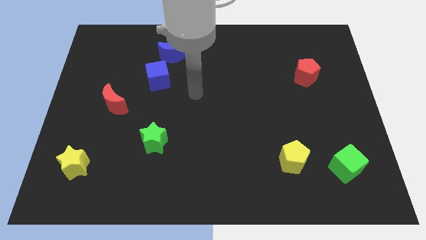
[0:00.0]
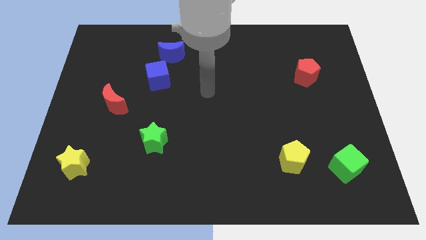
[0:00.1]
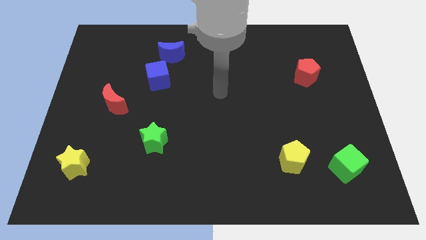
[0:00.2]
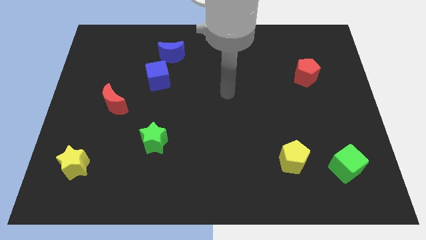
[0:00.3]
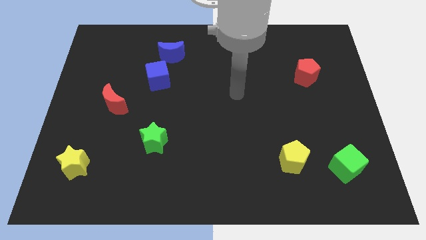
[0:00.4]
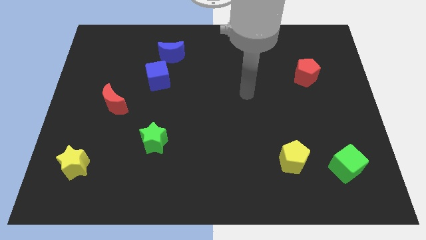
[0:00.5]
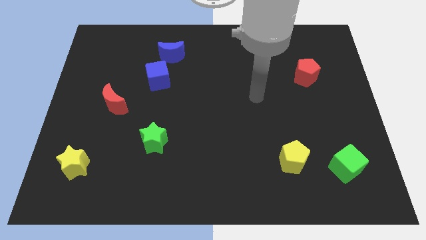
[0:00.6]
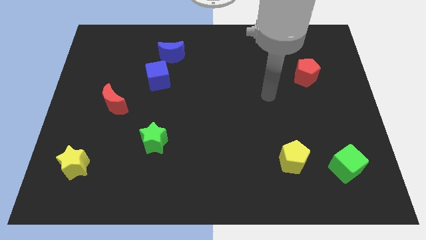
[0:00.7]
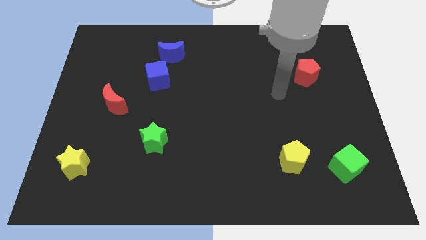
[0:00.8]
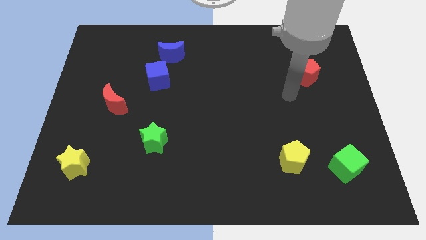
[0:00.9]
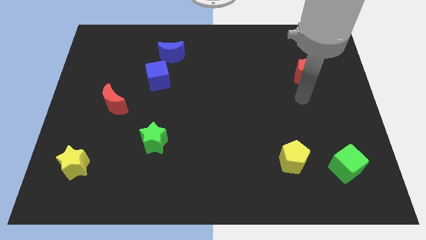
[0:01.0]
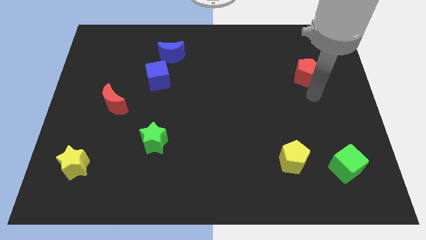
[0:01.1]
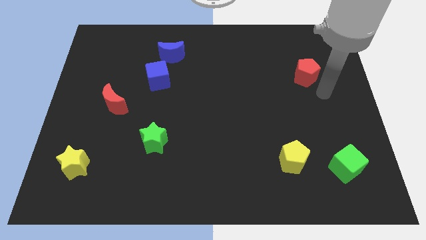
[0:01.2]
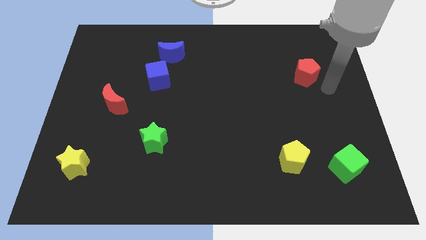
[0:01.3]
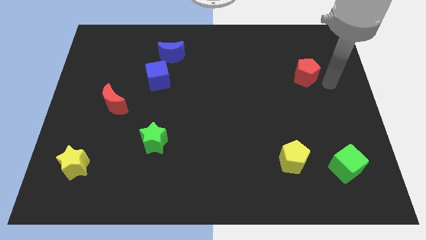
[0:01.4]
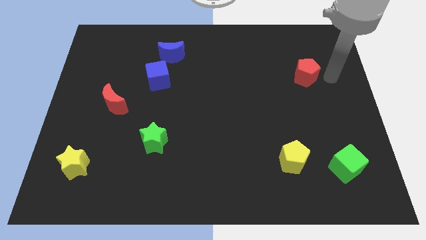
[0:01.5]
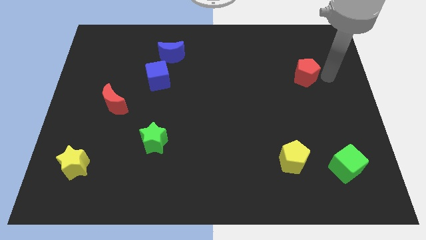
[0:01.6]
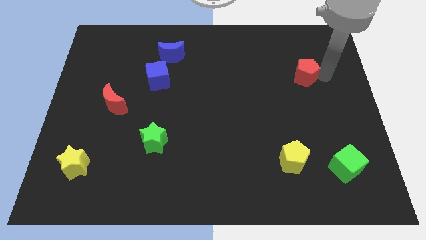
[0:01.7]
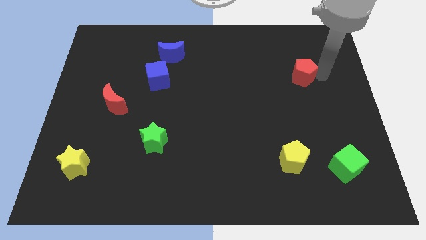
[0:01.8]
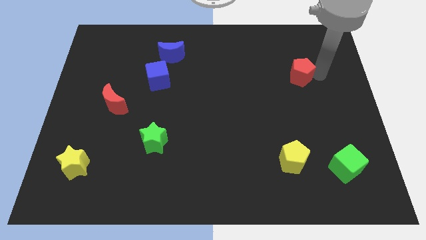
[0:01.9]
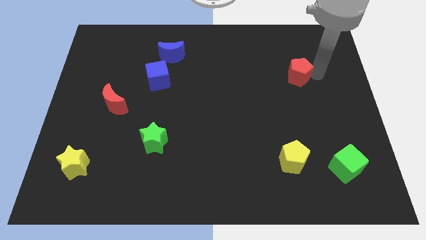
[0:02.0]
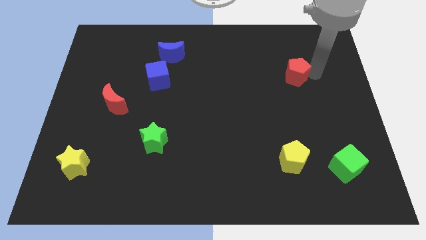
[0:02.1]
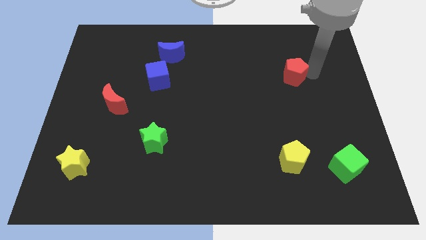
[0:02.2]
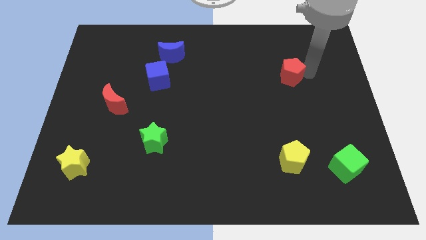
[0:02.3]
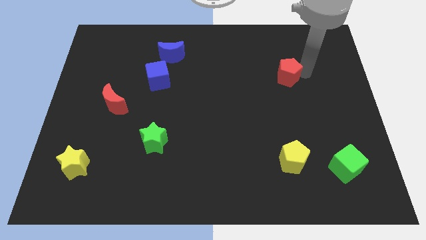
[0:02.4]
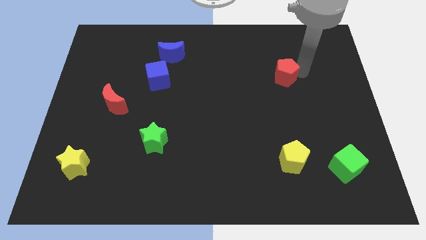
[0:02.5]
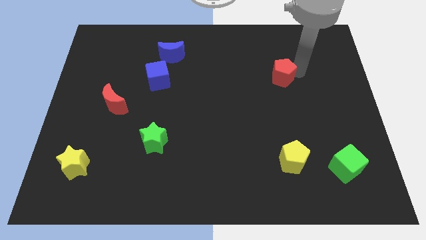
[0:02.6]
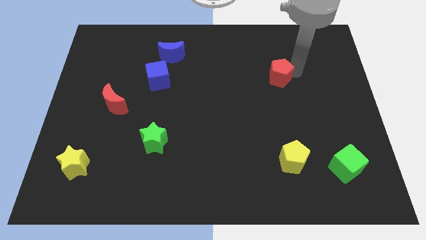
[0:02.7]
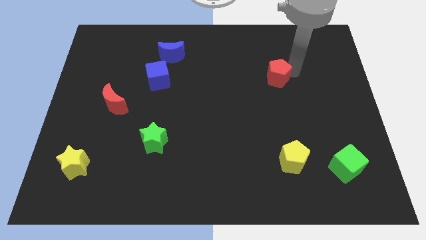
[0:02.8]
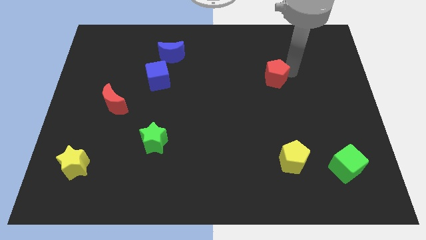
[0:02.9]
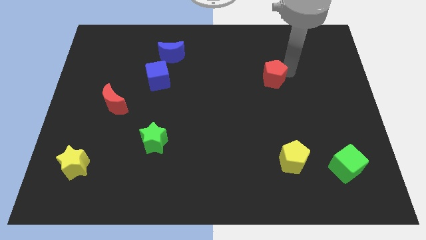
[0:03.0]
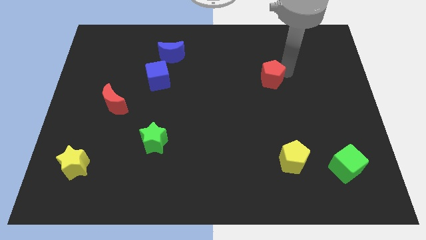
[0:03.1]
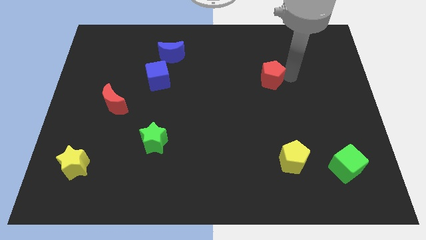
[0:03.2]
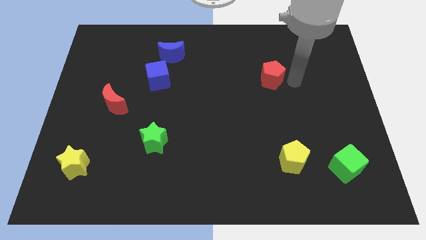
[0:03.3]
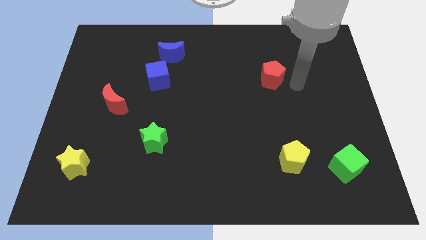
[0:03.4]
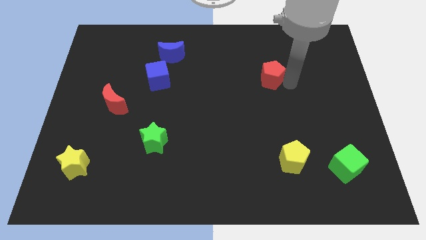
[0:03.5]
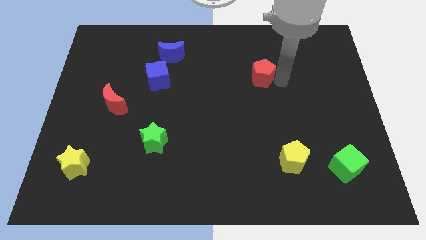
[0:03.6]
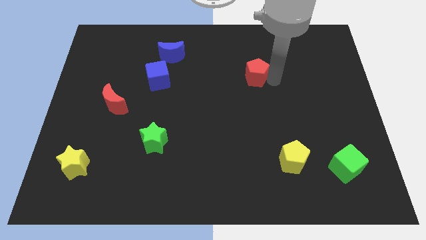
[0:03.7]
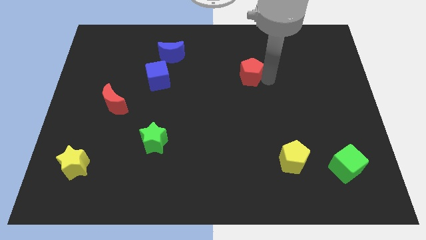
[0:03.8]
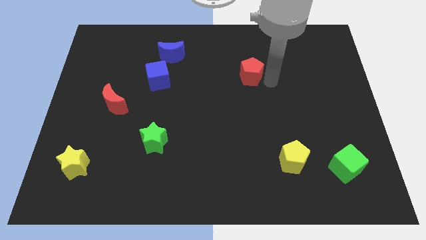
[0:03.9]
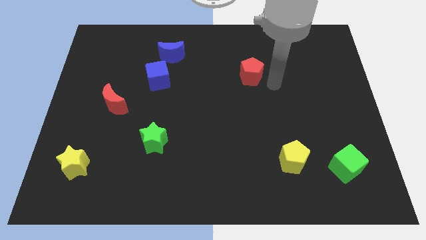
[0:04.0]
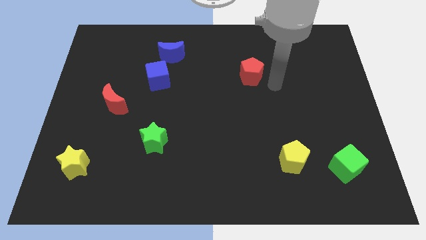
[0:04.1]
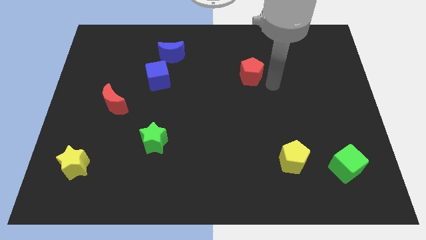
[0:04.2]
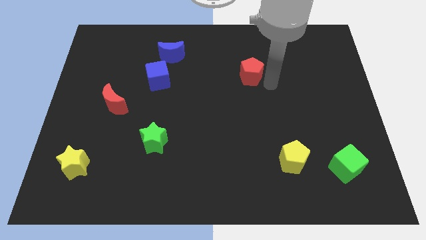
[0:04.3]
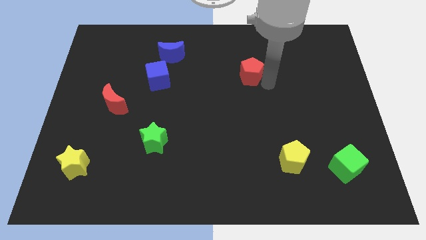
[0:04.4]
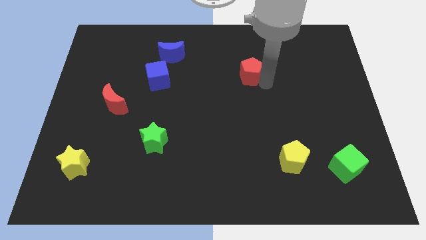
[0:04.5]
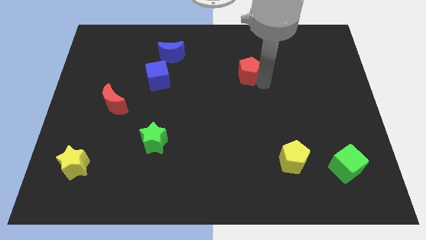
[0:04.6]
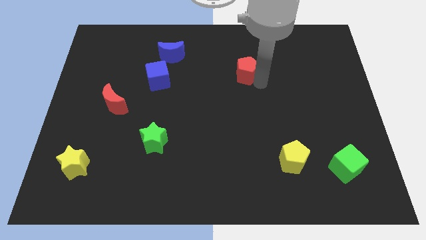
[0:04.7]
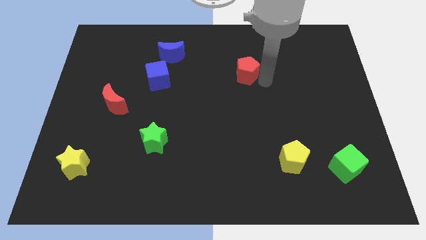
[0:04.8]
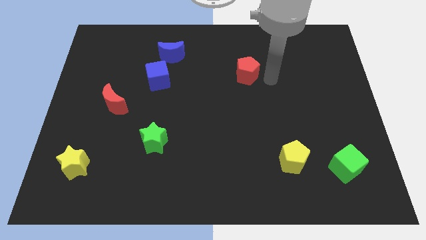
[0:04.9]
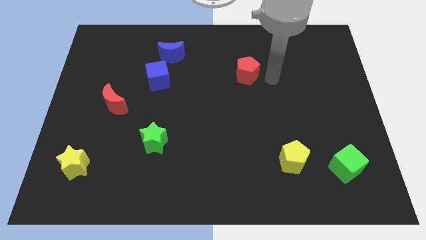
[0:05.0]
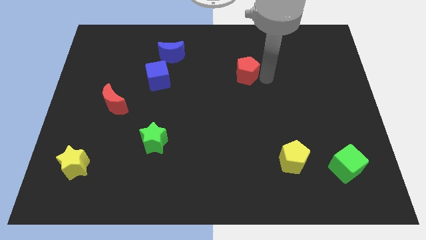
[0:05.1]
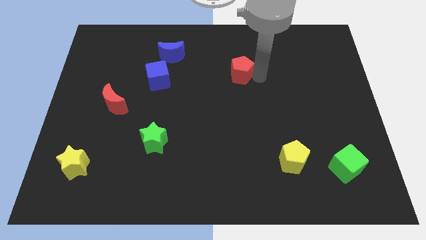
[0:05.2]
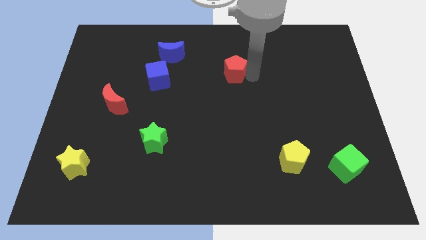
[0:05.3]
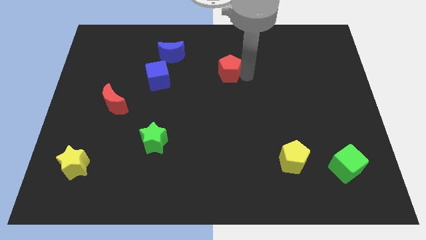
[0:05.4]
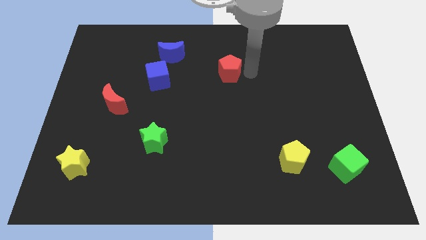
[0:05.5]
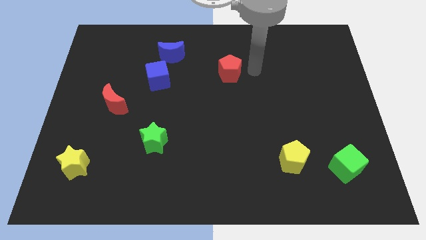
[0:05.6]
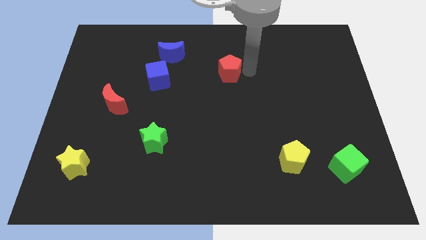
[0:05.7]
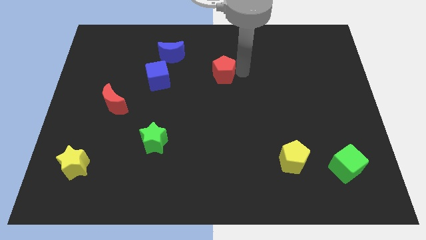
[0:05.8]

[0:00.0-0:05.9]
slide the red pentagon to the left

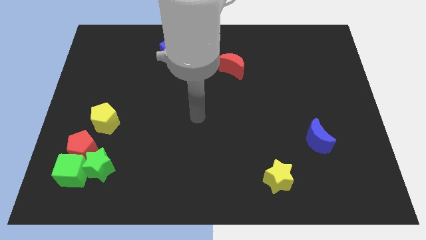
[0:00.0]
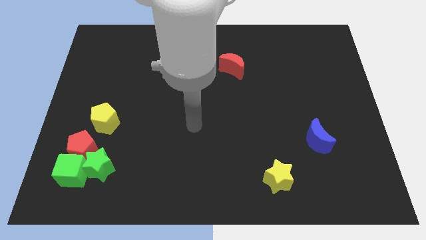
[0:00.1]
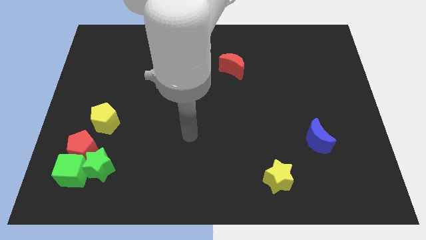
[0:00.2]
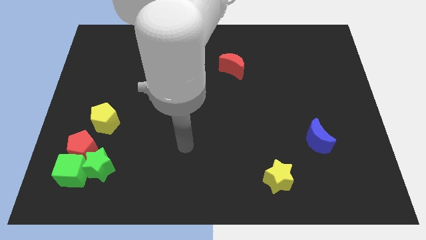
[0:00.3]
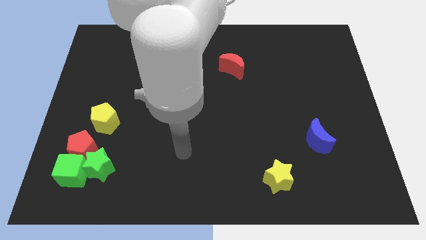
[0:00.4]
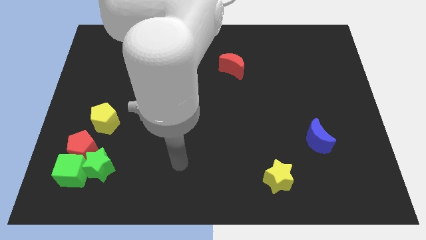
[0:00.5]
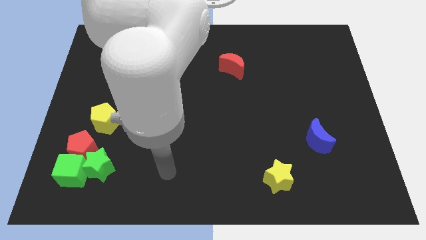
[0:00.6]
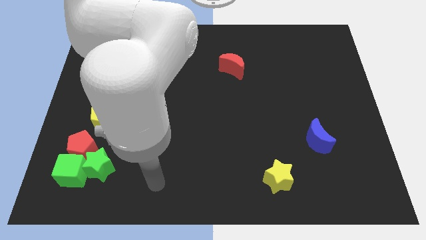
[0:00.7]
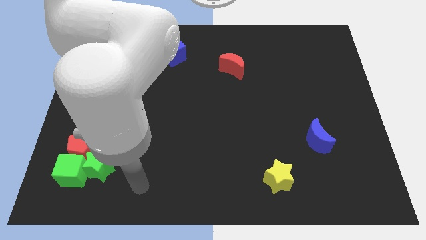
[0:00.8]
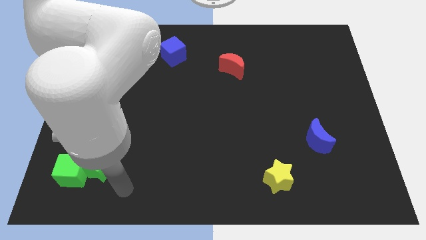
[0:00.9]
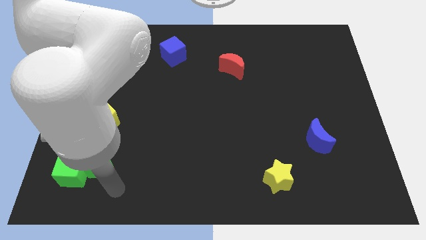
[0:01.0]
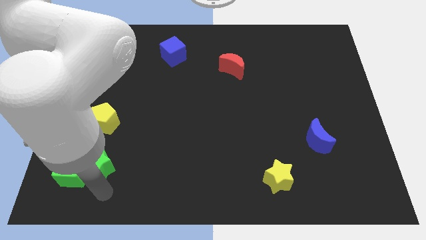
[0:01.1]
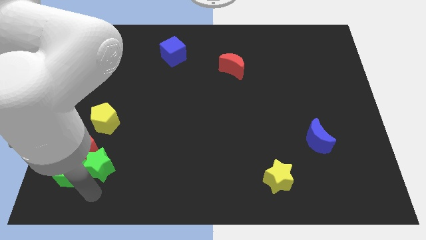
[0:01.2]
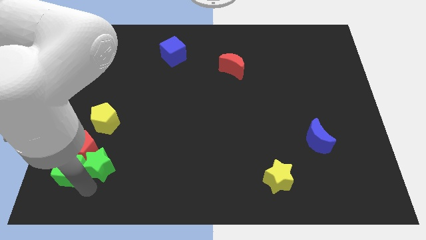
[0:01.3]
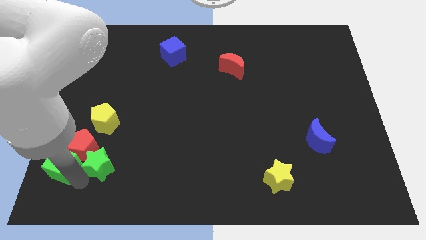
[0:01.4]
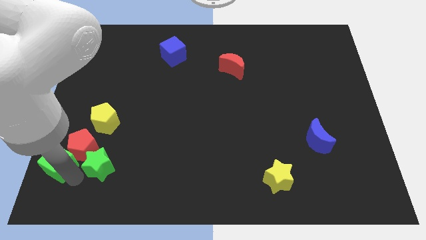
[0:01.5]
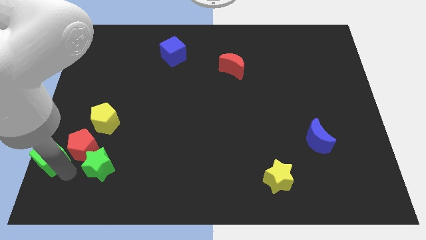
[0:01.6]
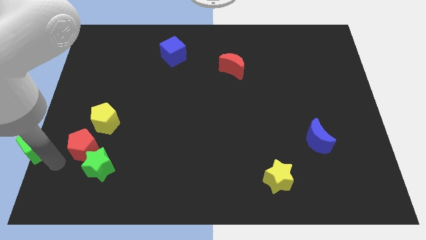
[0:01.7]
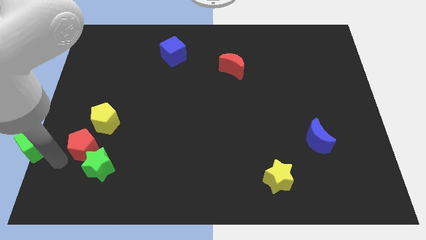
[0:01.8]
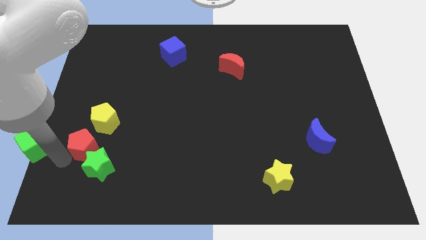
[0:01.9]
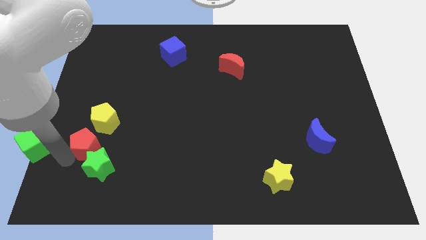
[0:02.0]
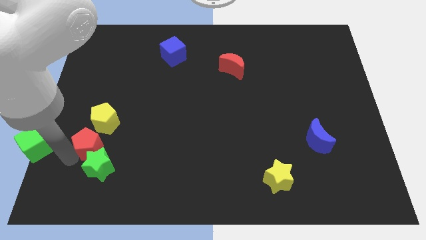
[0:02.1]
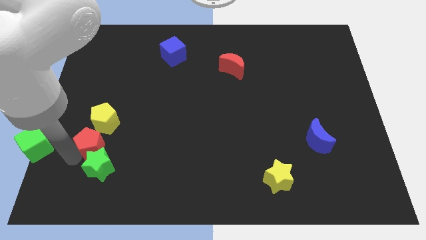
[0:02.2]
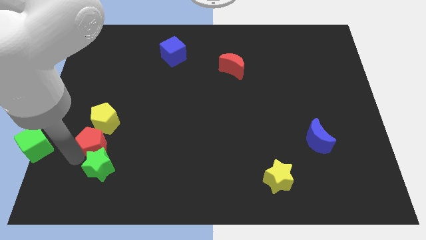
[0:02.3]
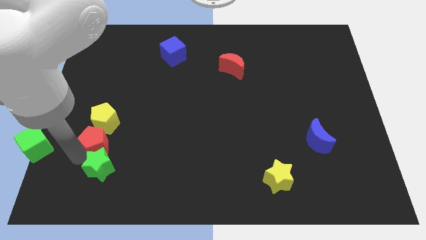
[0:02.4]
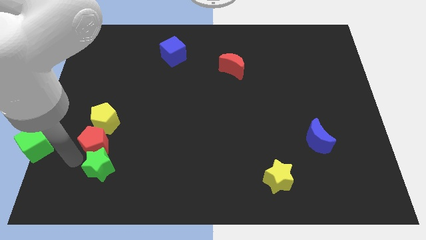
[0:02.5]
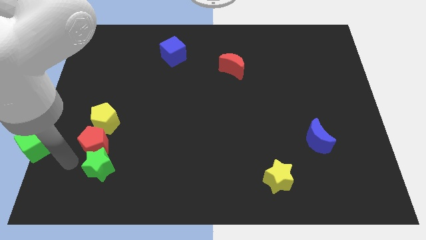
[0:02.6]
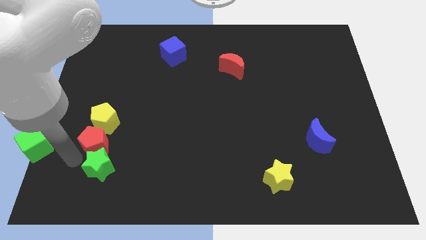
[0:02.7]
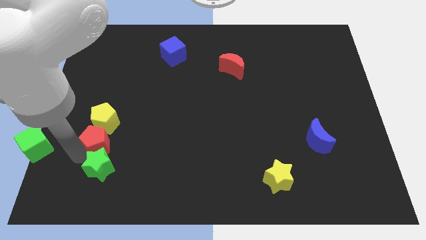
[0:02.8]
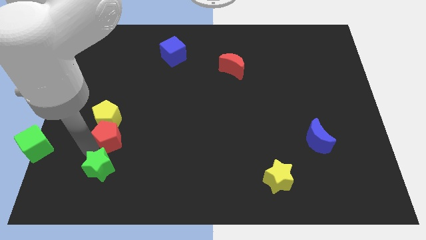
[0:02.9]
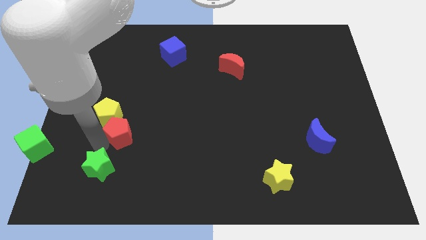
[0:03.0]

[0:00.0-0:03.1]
slide the red pentagon a bit diagonally upwards and right
